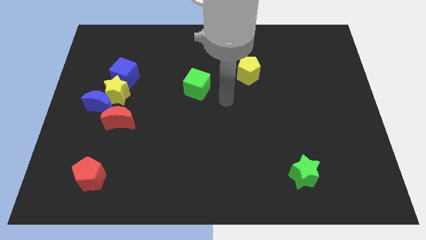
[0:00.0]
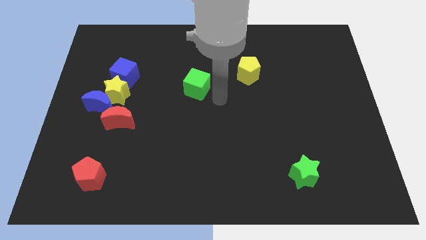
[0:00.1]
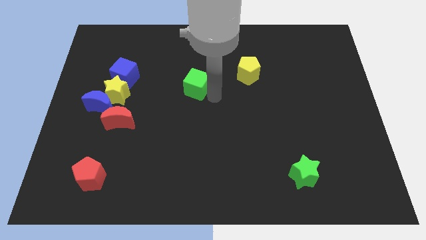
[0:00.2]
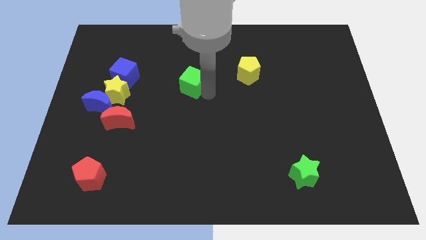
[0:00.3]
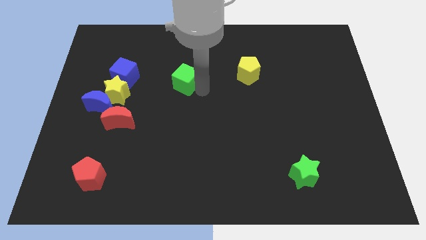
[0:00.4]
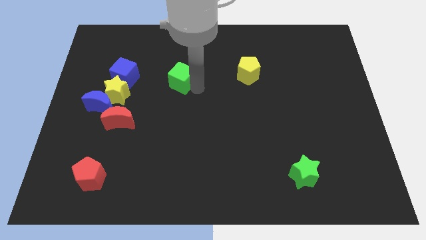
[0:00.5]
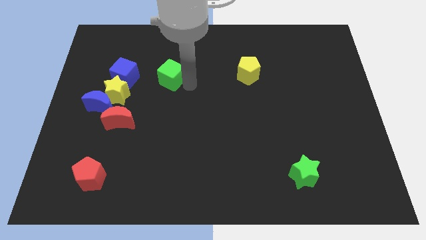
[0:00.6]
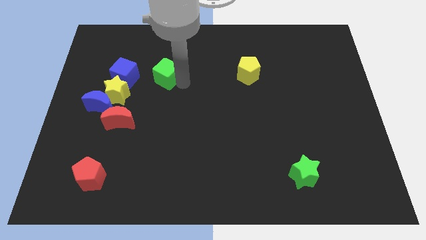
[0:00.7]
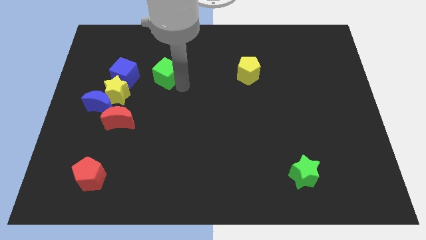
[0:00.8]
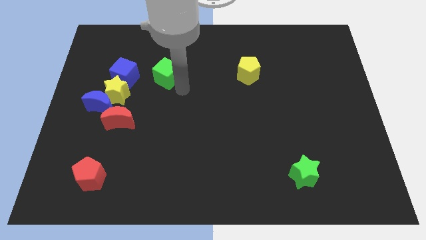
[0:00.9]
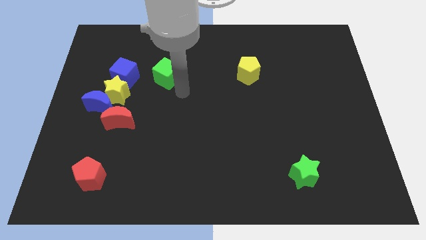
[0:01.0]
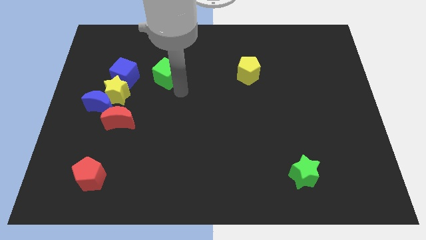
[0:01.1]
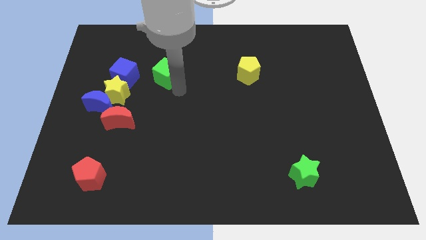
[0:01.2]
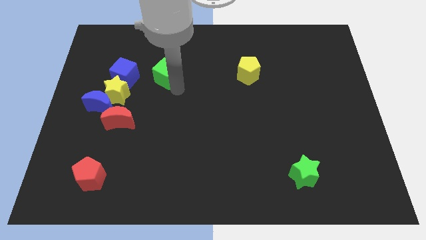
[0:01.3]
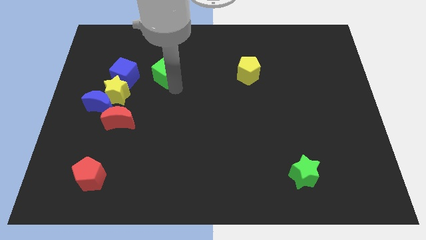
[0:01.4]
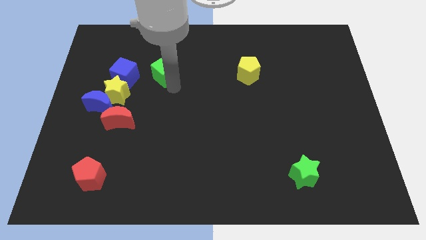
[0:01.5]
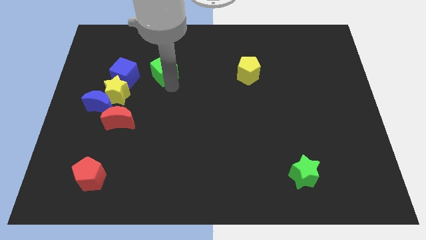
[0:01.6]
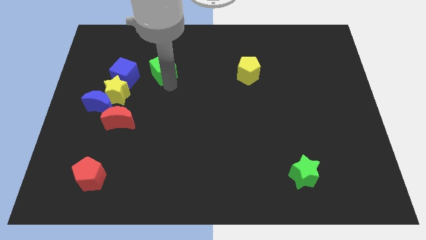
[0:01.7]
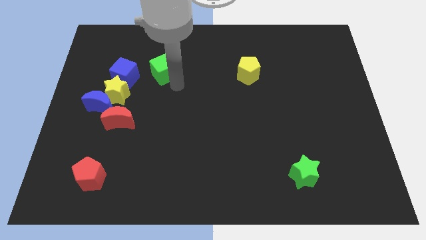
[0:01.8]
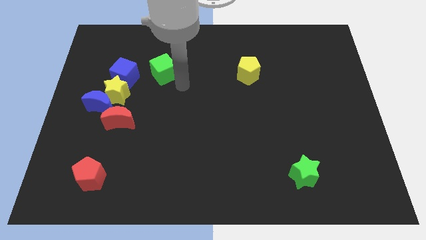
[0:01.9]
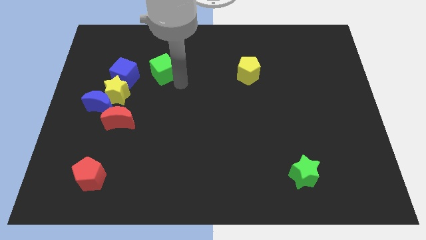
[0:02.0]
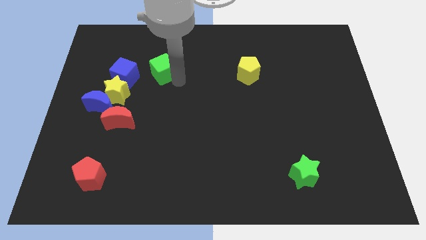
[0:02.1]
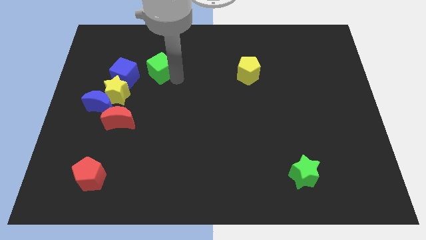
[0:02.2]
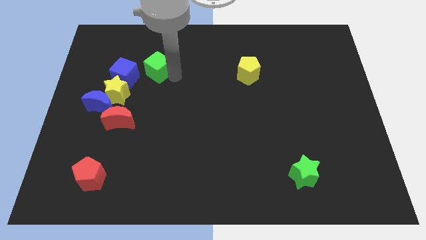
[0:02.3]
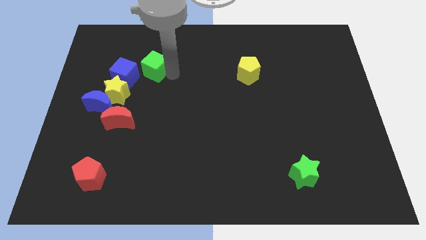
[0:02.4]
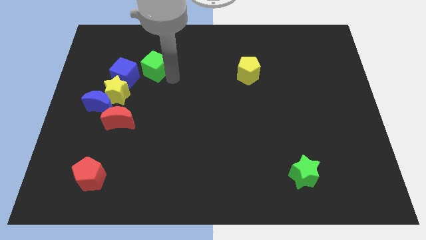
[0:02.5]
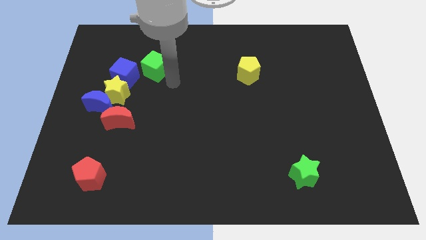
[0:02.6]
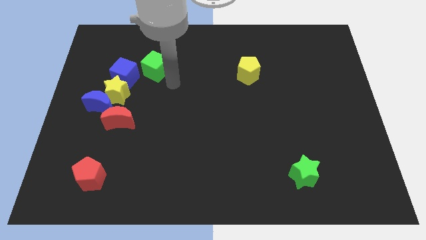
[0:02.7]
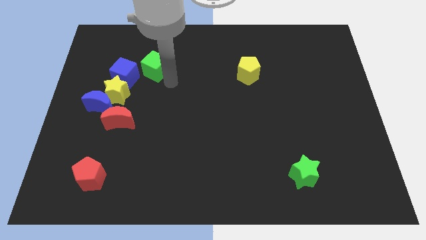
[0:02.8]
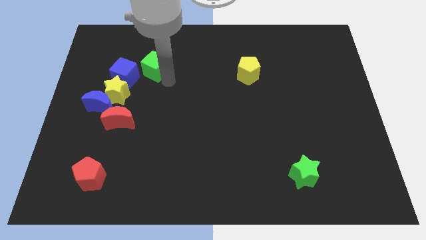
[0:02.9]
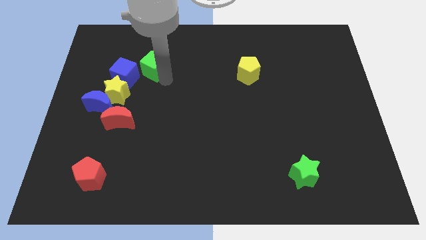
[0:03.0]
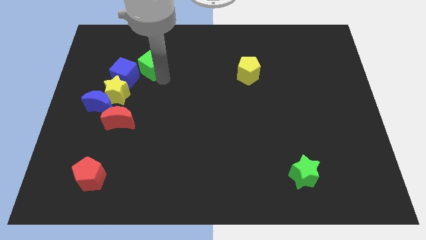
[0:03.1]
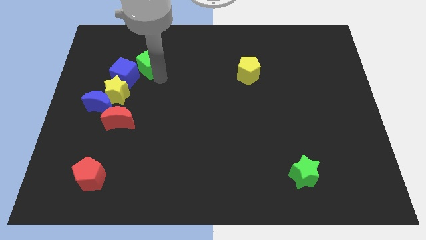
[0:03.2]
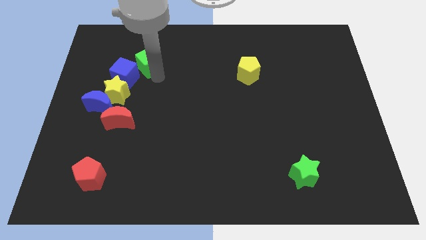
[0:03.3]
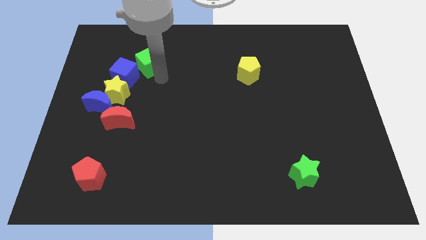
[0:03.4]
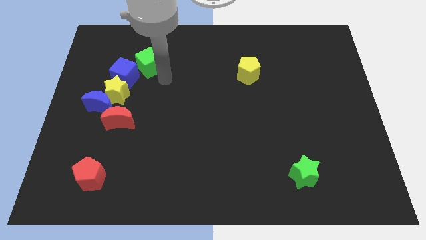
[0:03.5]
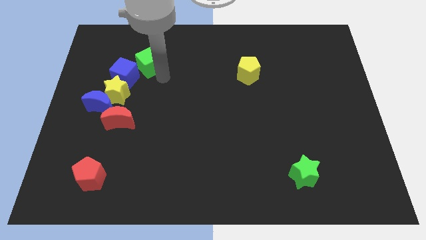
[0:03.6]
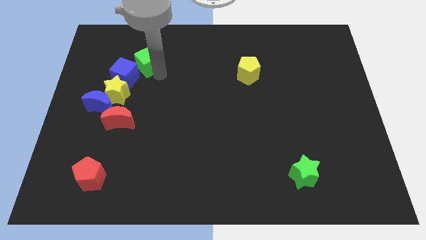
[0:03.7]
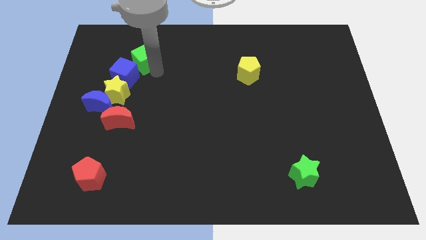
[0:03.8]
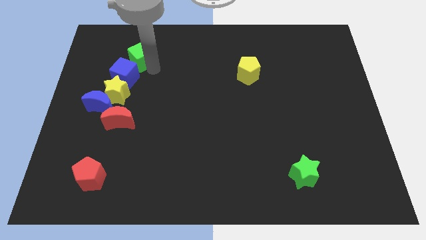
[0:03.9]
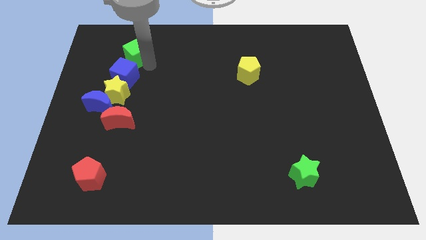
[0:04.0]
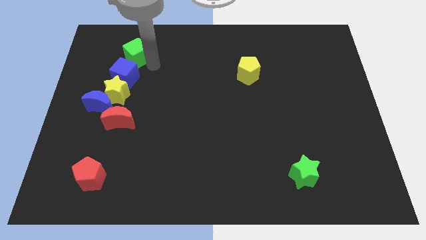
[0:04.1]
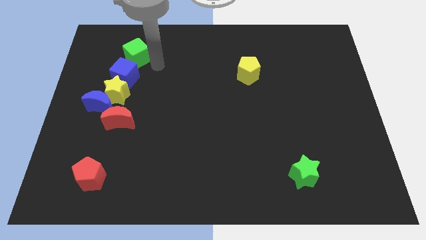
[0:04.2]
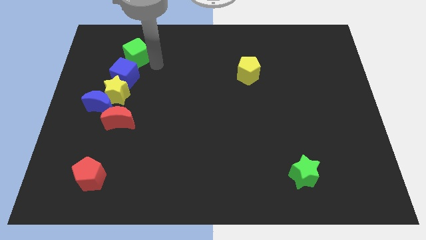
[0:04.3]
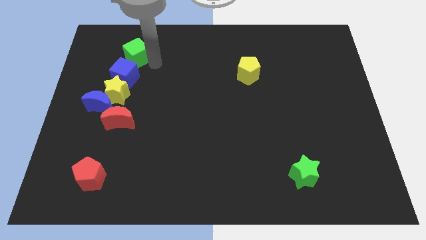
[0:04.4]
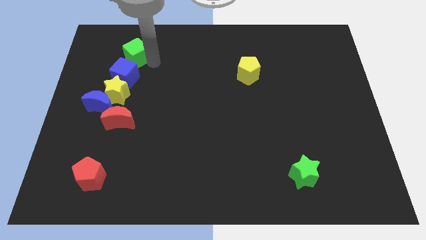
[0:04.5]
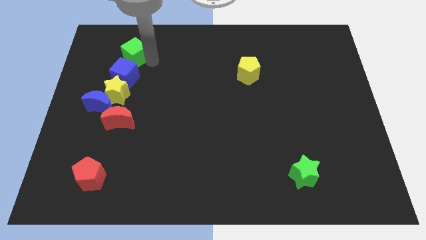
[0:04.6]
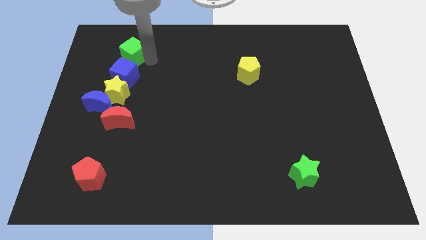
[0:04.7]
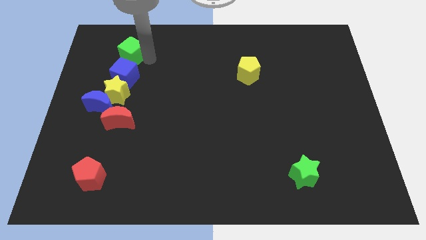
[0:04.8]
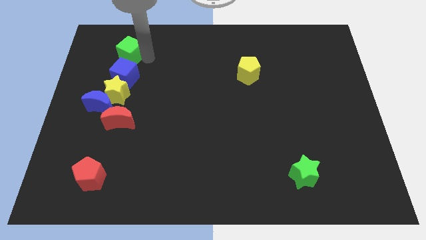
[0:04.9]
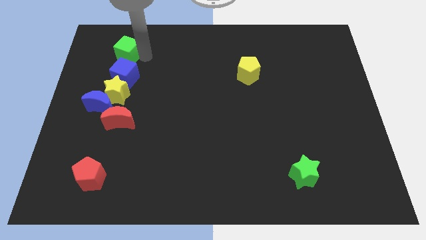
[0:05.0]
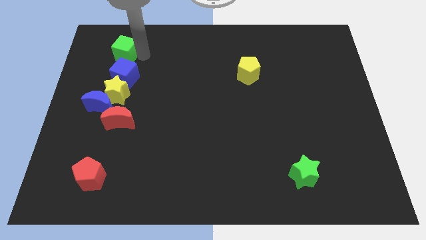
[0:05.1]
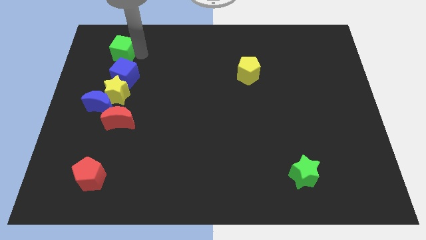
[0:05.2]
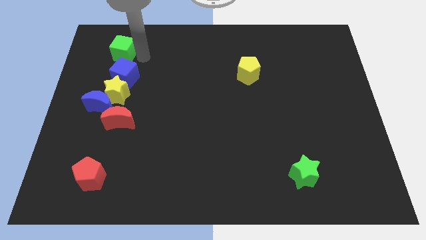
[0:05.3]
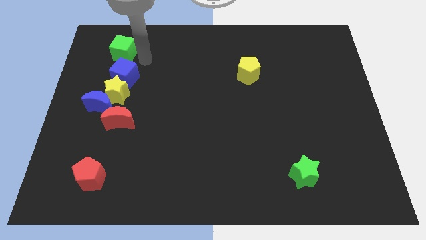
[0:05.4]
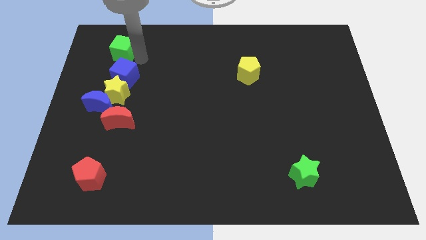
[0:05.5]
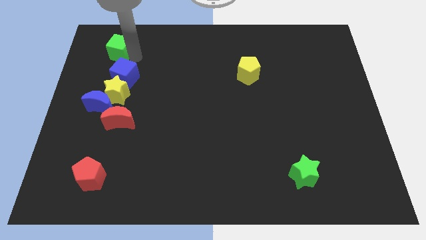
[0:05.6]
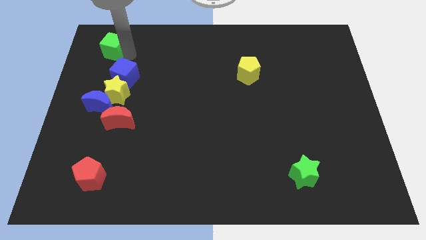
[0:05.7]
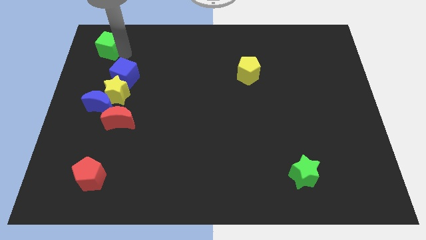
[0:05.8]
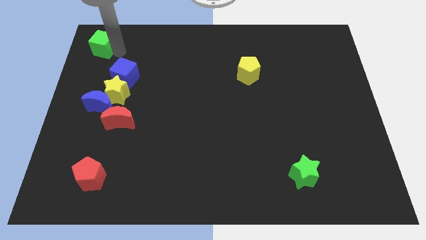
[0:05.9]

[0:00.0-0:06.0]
slide the green cube to the top left corner

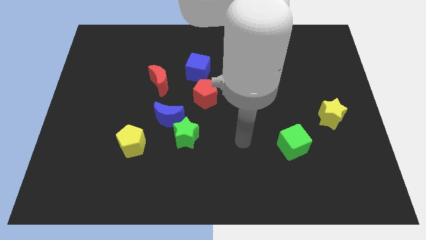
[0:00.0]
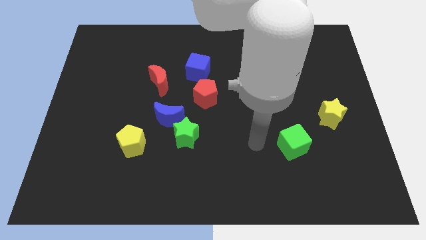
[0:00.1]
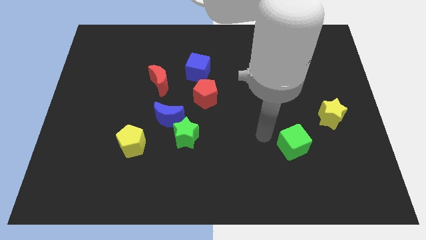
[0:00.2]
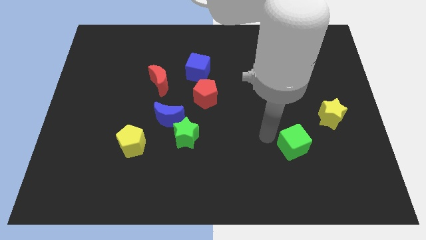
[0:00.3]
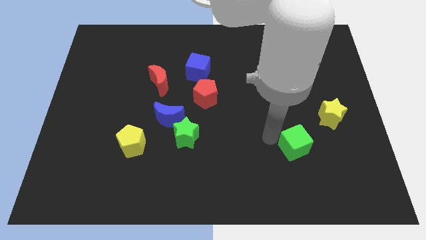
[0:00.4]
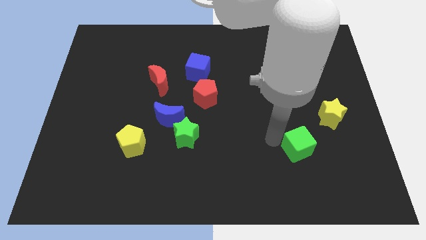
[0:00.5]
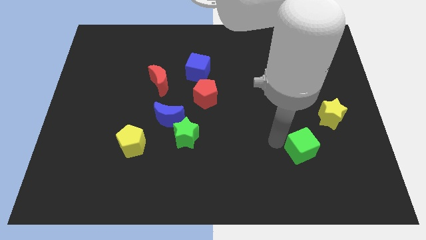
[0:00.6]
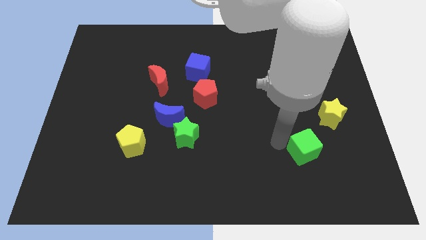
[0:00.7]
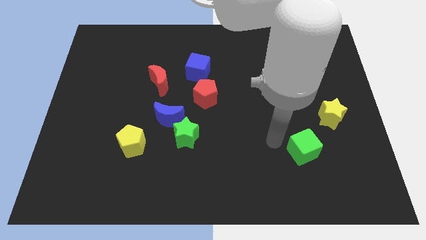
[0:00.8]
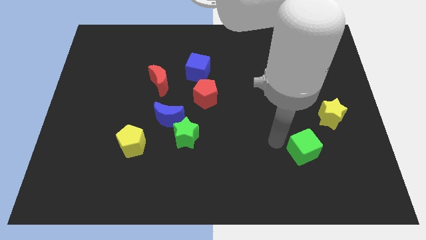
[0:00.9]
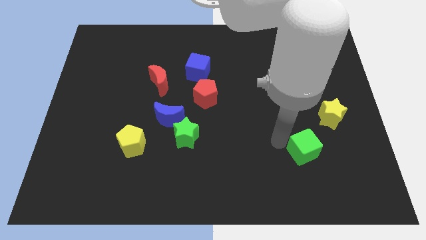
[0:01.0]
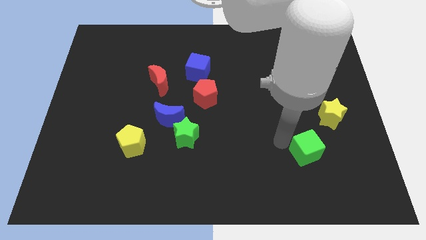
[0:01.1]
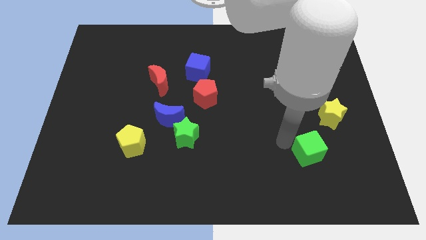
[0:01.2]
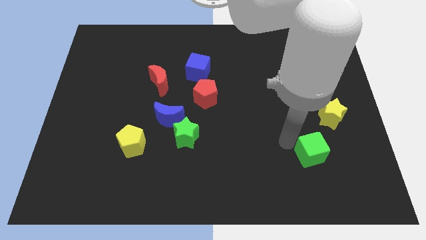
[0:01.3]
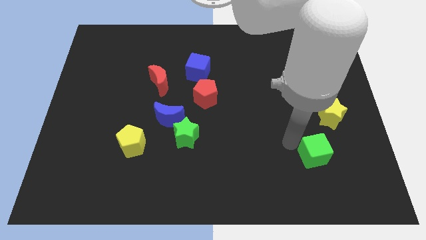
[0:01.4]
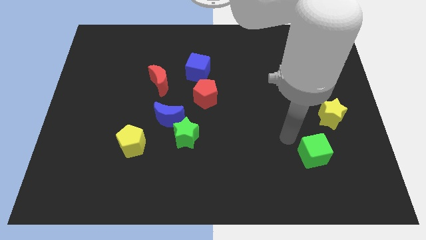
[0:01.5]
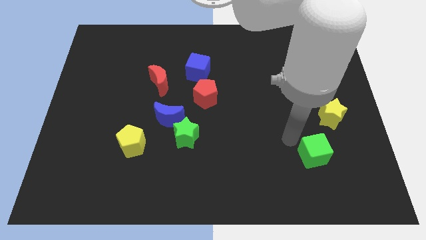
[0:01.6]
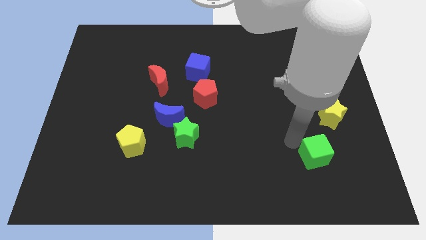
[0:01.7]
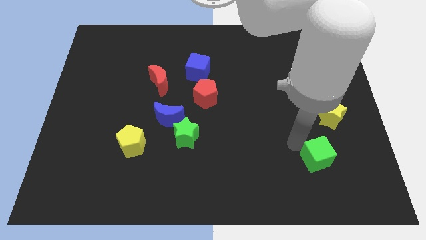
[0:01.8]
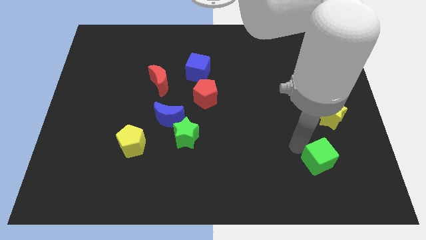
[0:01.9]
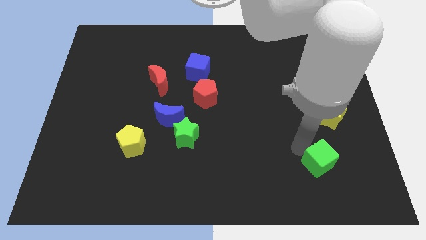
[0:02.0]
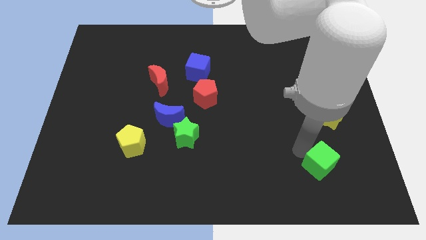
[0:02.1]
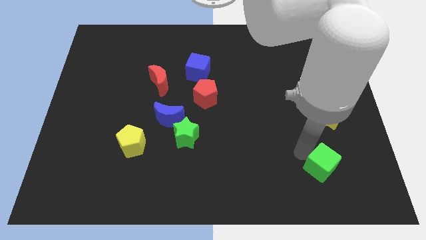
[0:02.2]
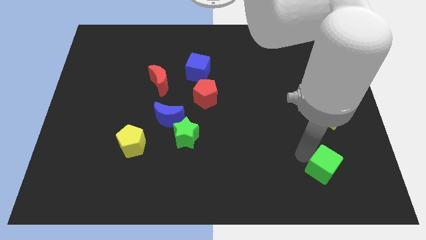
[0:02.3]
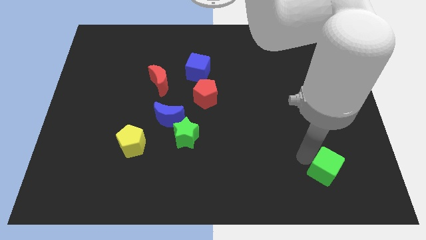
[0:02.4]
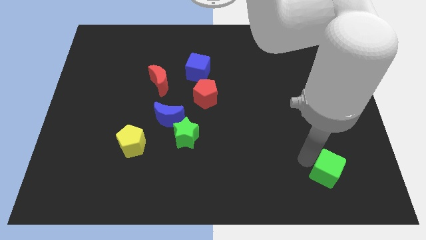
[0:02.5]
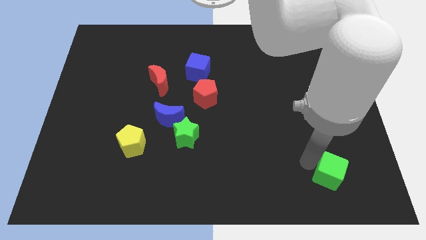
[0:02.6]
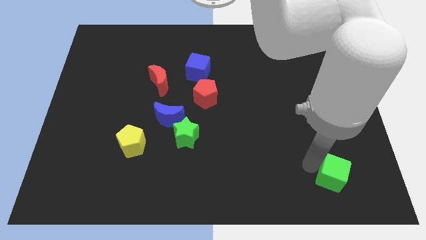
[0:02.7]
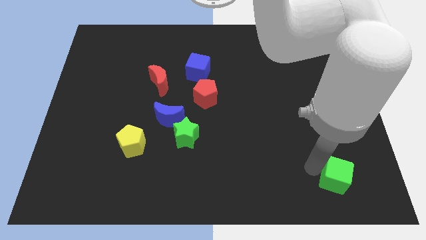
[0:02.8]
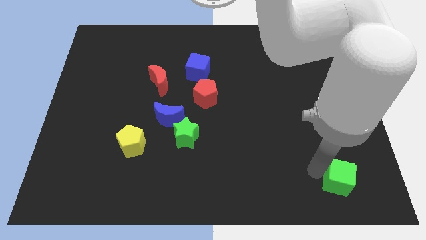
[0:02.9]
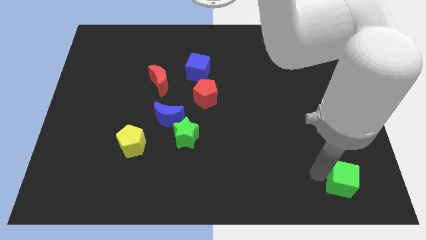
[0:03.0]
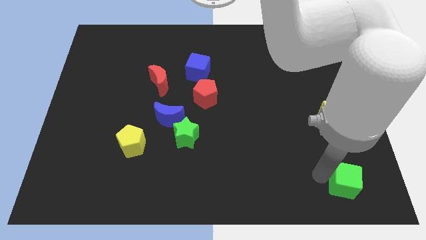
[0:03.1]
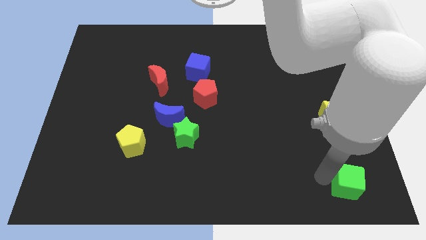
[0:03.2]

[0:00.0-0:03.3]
move the green cube to the bottom right of the board
